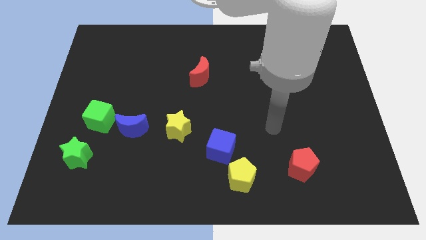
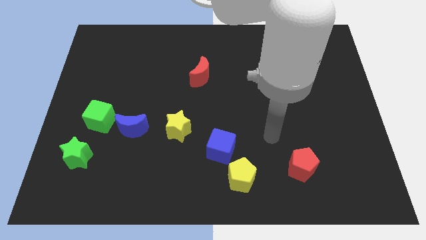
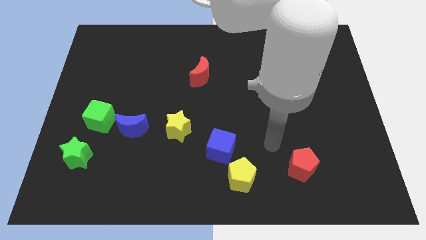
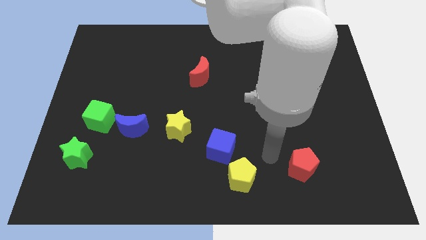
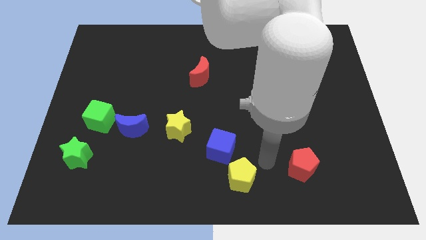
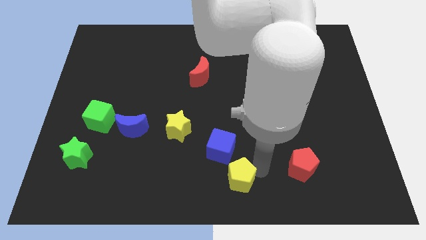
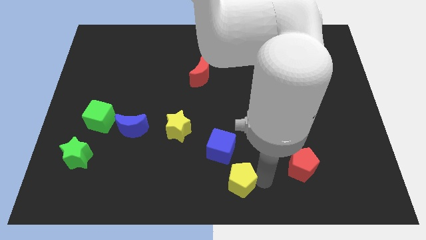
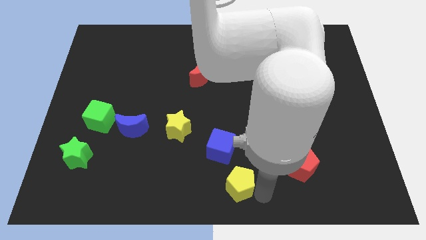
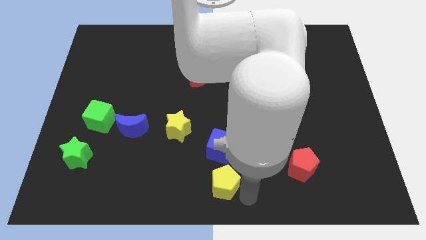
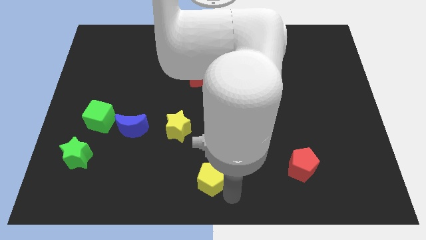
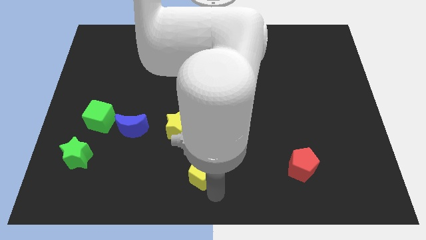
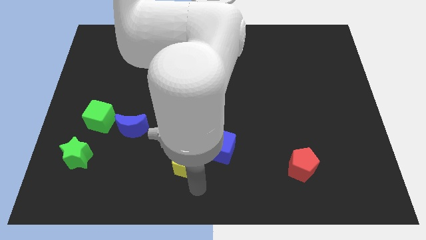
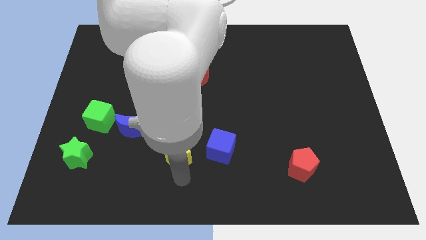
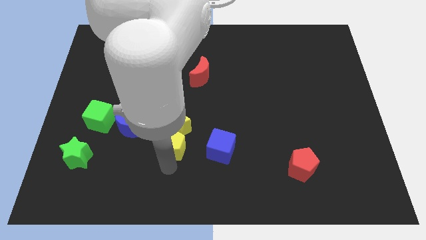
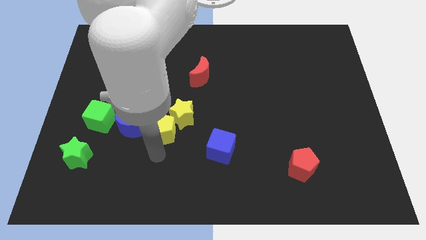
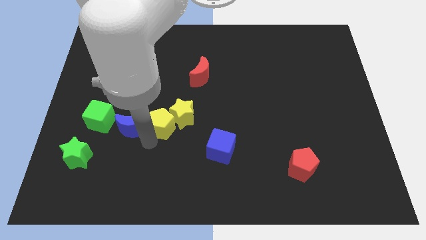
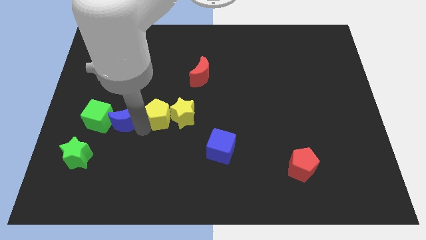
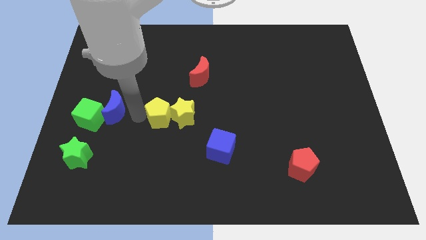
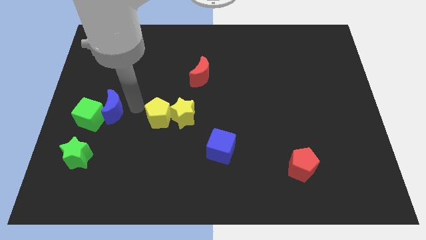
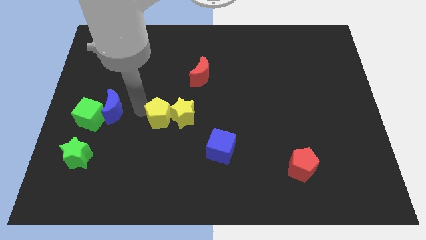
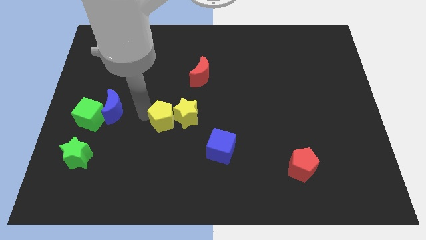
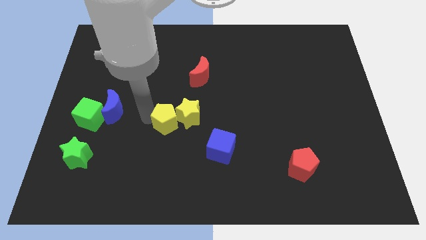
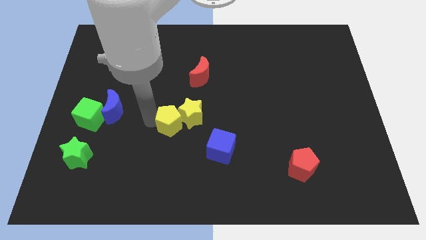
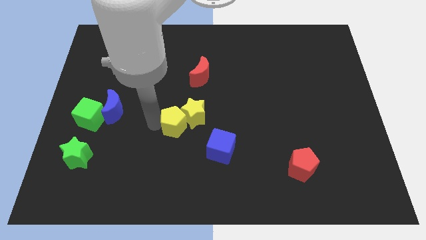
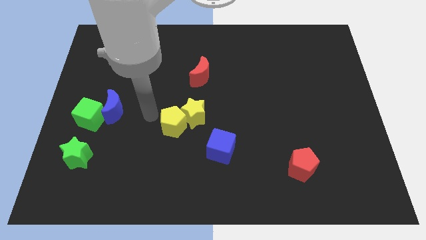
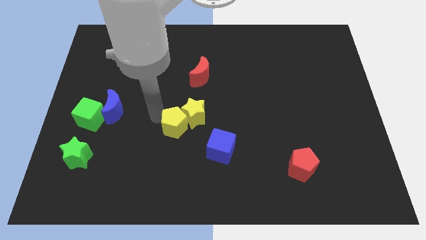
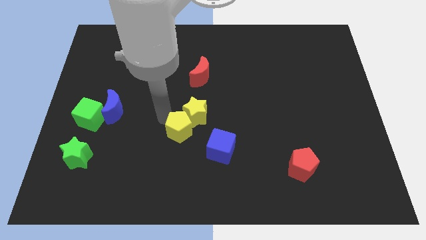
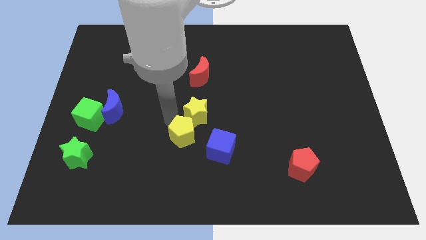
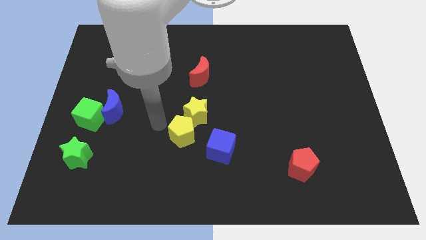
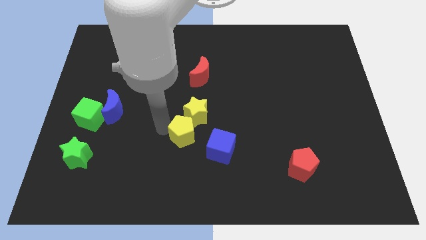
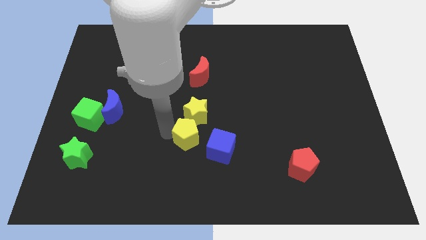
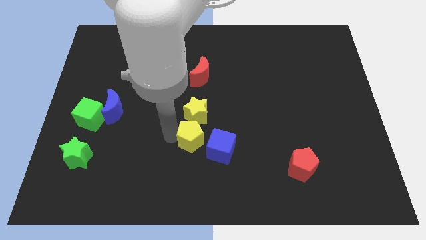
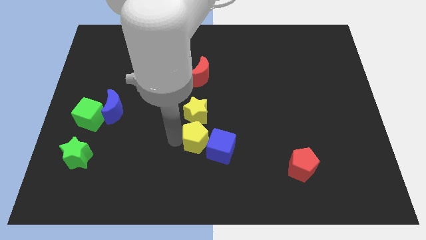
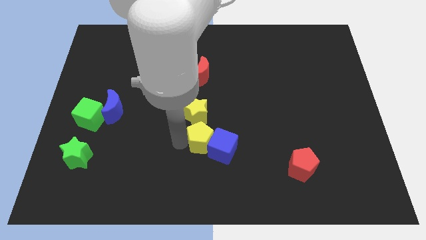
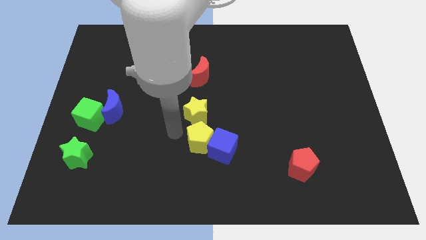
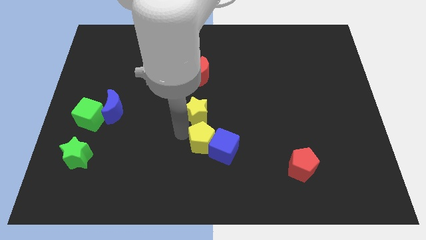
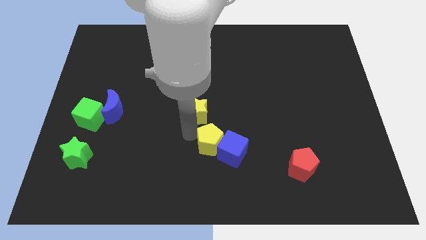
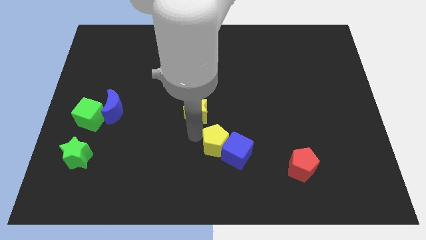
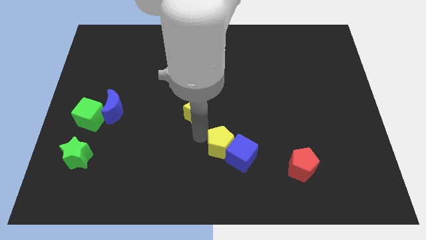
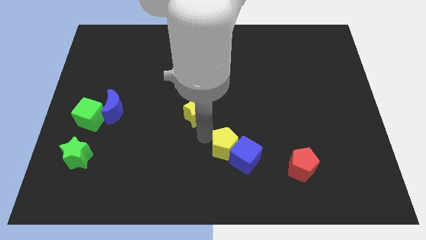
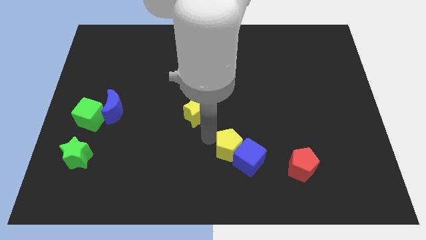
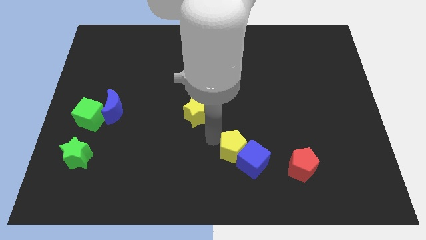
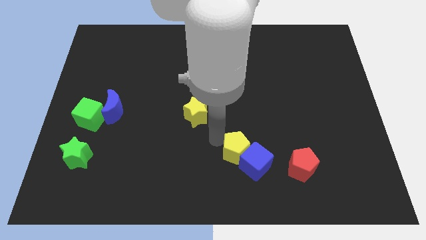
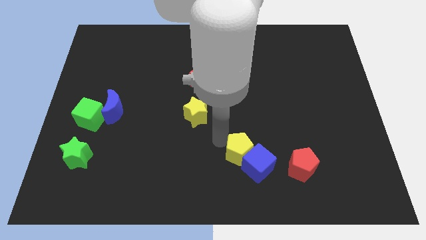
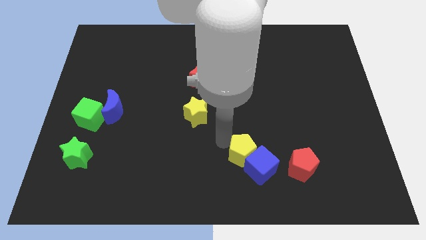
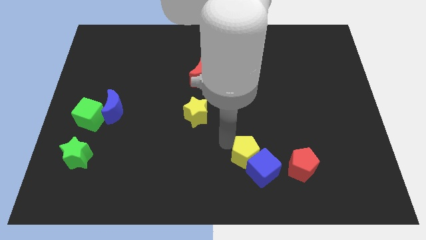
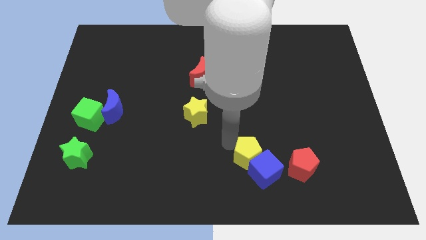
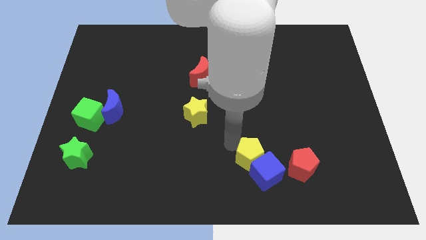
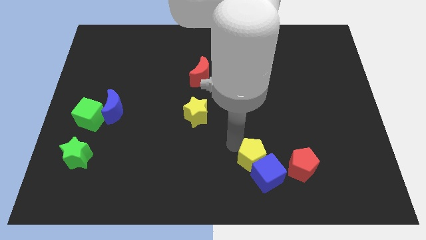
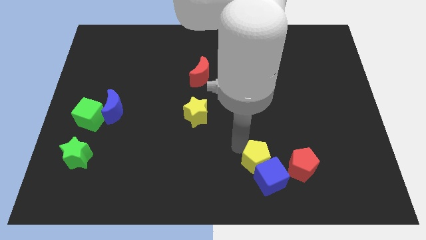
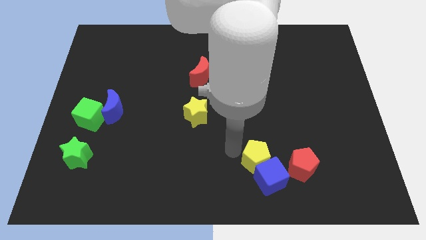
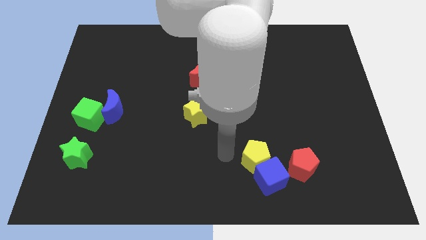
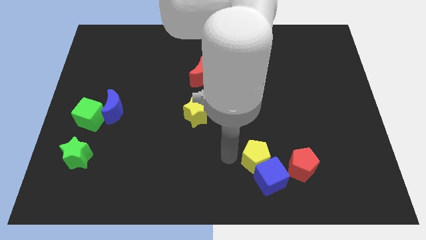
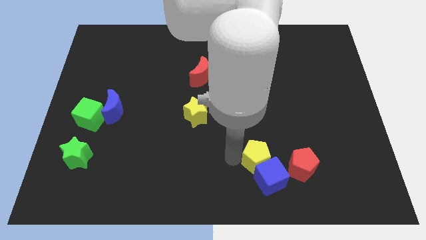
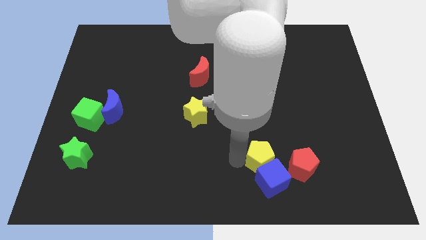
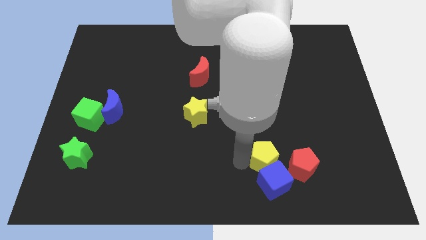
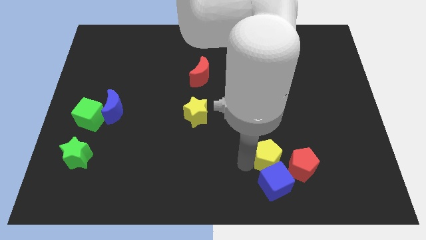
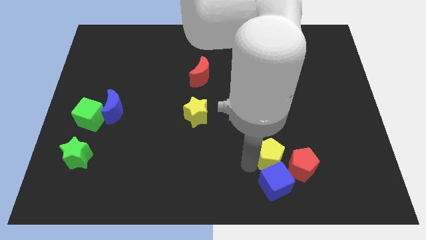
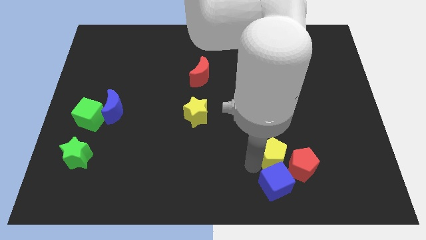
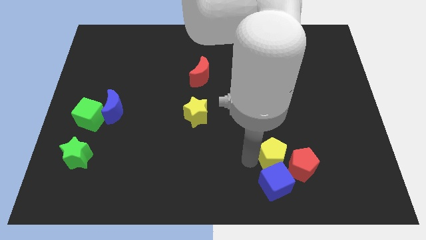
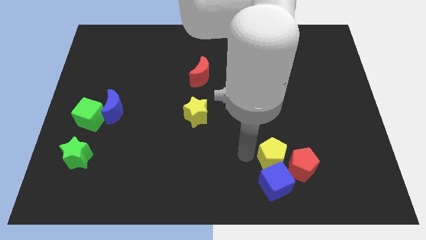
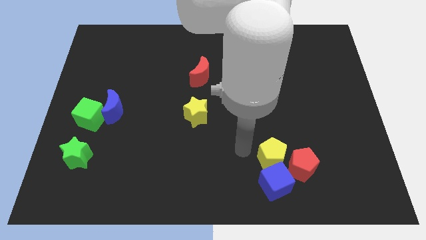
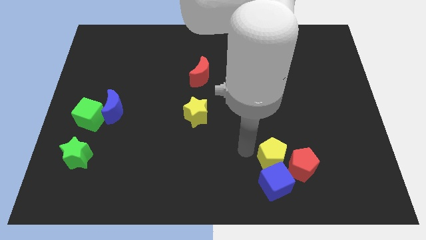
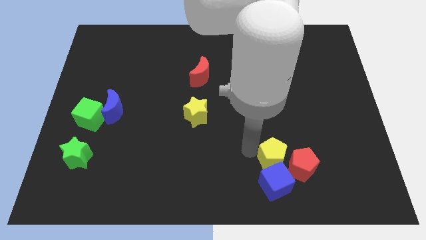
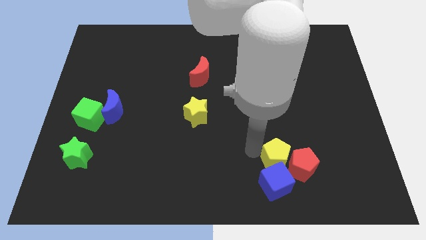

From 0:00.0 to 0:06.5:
put the yellow pentagon close to the red pentagon
